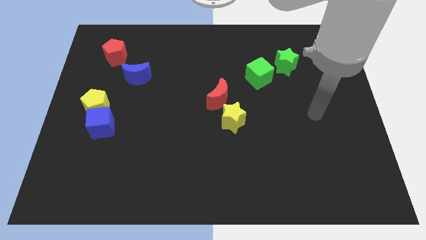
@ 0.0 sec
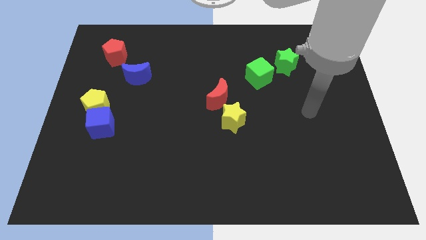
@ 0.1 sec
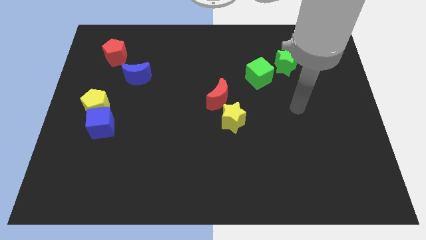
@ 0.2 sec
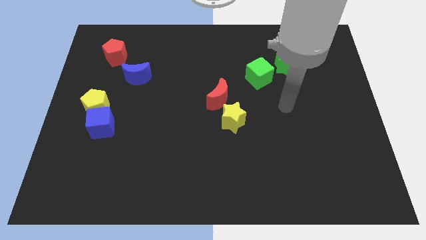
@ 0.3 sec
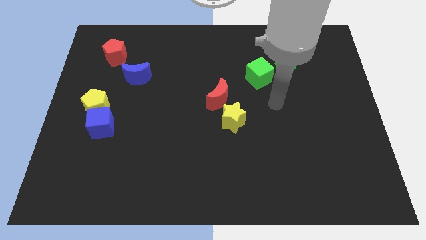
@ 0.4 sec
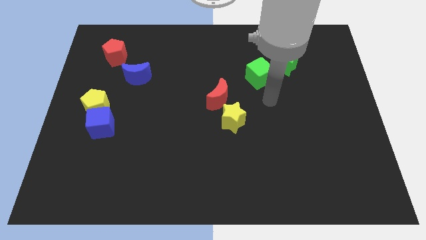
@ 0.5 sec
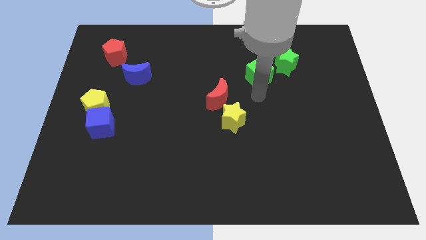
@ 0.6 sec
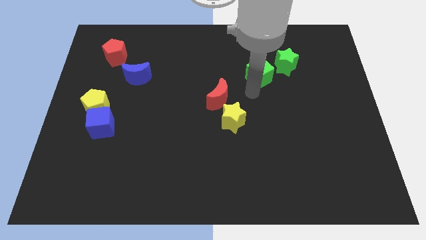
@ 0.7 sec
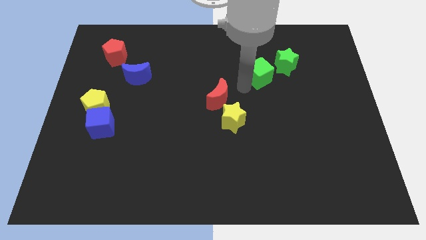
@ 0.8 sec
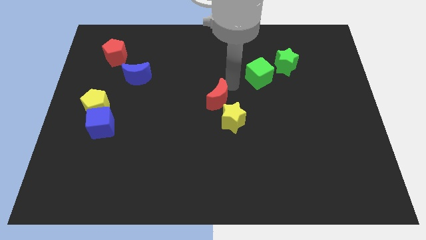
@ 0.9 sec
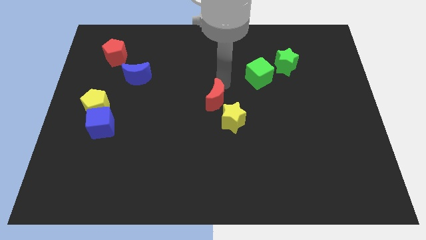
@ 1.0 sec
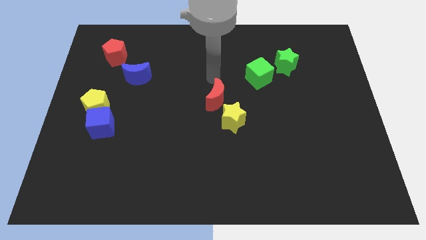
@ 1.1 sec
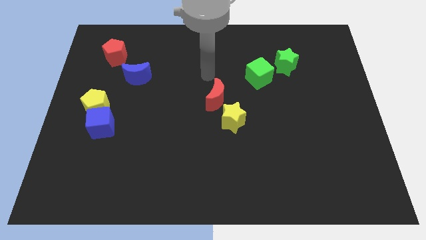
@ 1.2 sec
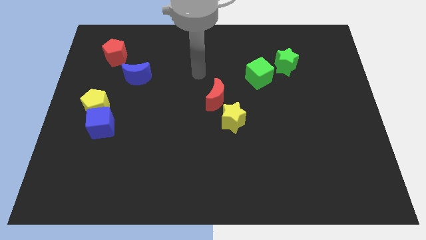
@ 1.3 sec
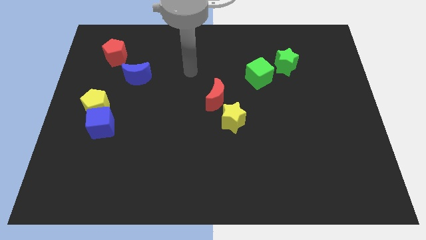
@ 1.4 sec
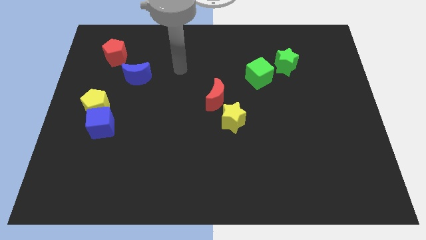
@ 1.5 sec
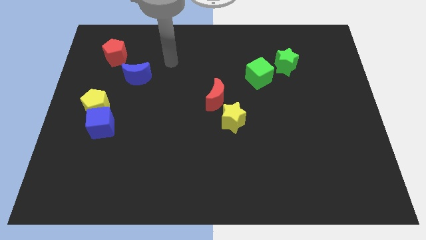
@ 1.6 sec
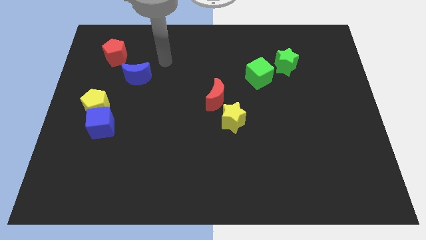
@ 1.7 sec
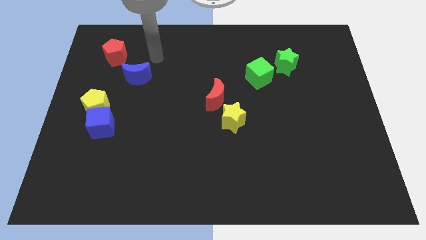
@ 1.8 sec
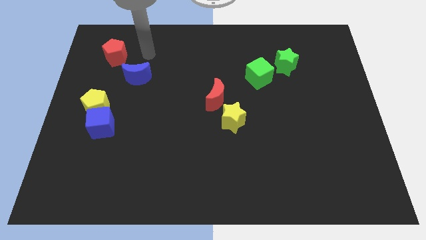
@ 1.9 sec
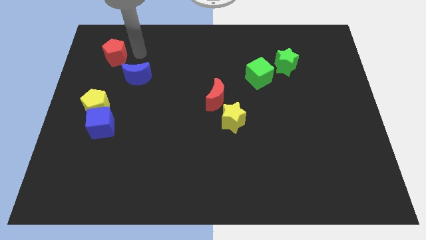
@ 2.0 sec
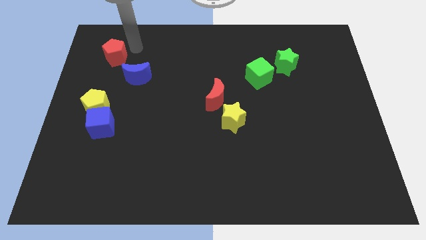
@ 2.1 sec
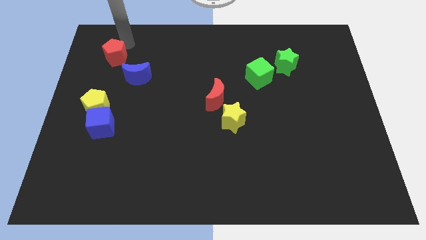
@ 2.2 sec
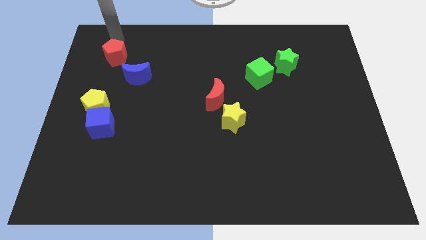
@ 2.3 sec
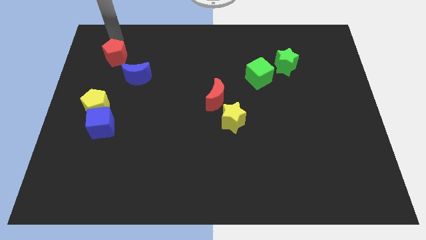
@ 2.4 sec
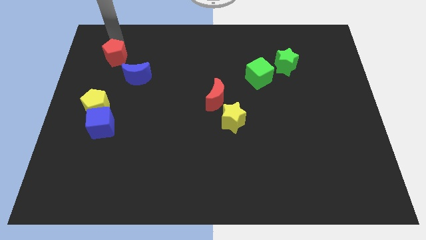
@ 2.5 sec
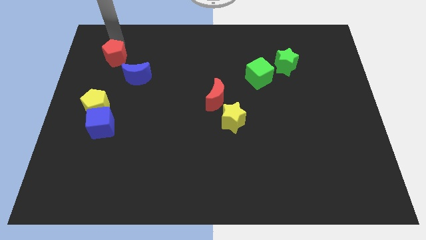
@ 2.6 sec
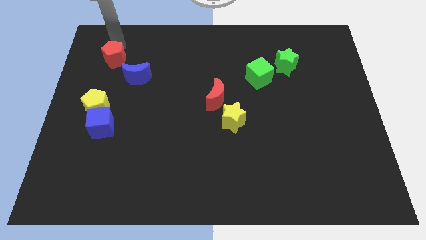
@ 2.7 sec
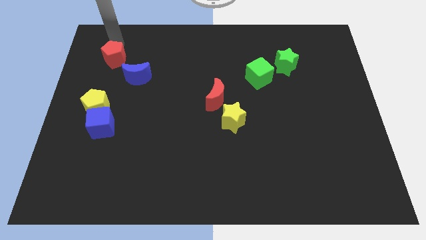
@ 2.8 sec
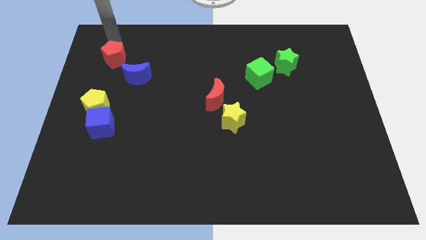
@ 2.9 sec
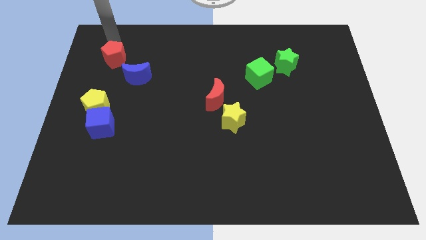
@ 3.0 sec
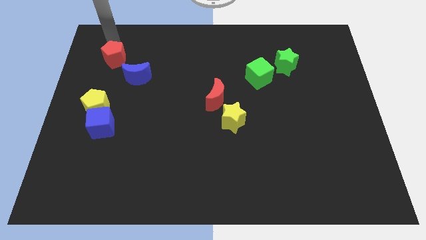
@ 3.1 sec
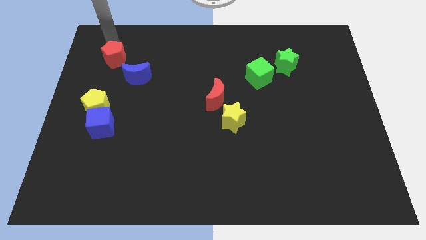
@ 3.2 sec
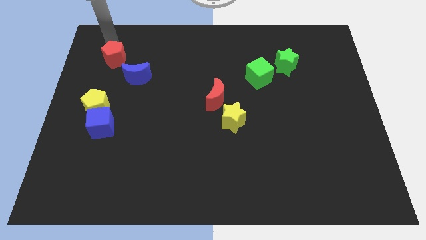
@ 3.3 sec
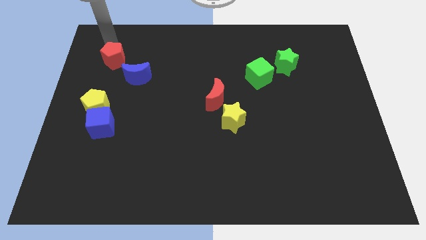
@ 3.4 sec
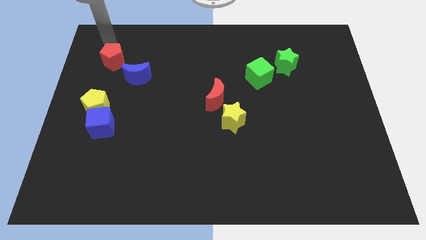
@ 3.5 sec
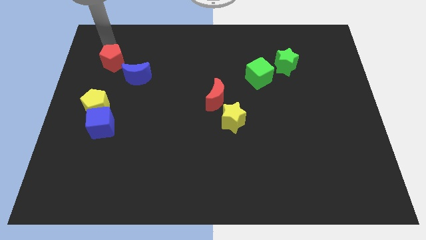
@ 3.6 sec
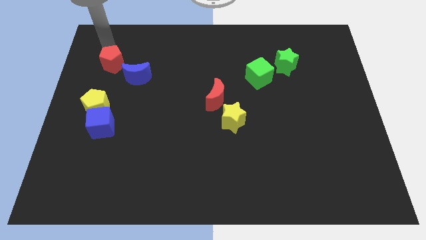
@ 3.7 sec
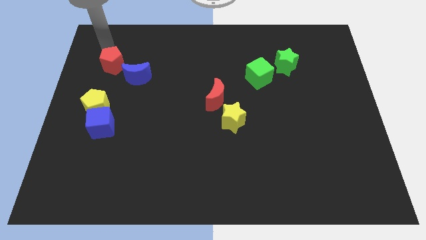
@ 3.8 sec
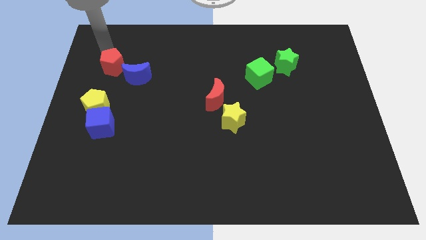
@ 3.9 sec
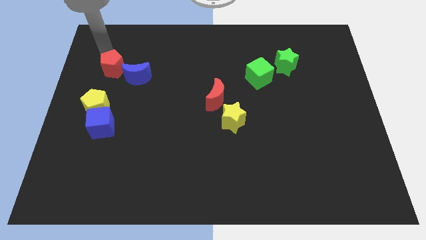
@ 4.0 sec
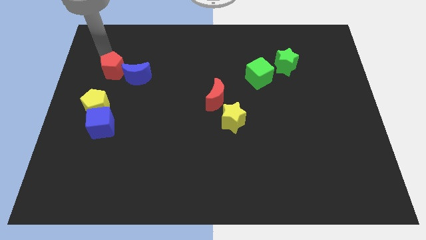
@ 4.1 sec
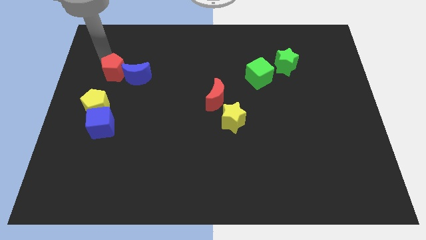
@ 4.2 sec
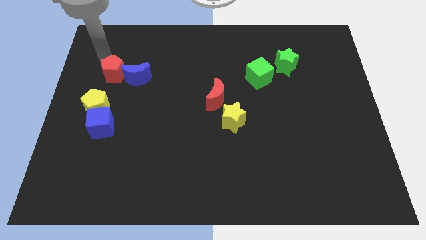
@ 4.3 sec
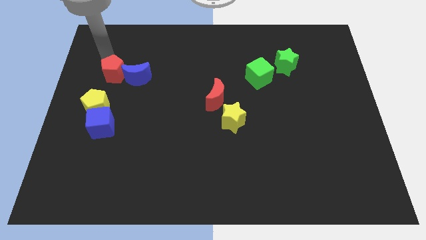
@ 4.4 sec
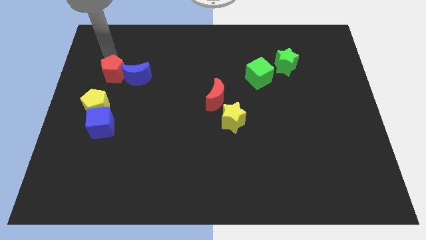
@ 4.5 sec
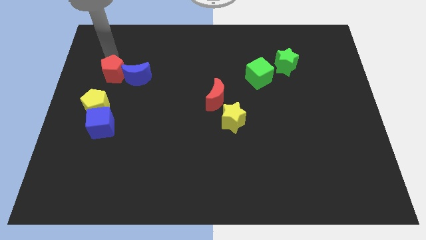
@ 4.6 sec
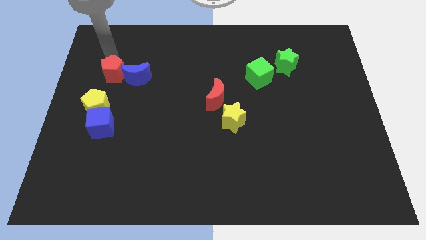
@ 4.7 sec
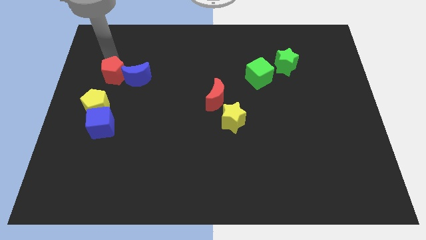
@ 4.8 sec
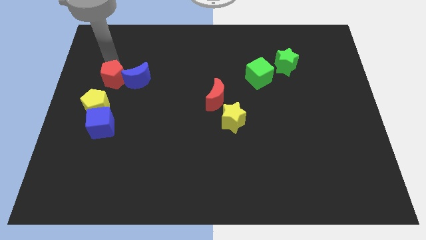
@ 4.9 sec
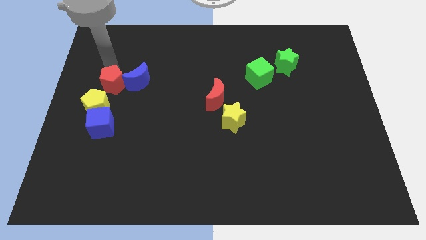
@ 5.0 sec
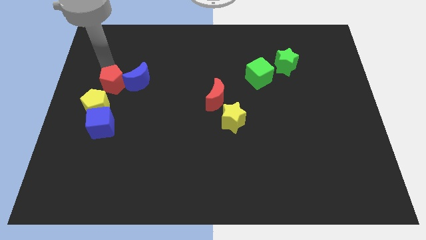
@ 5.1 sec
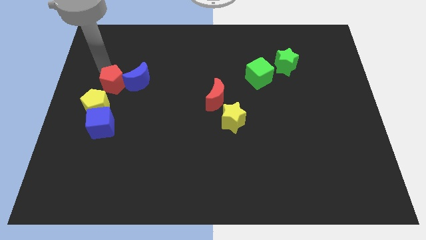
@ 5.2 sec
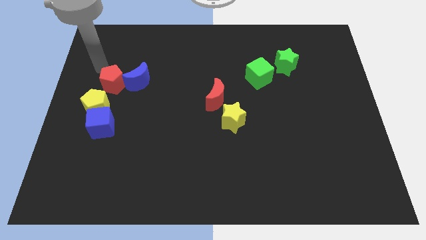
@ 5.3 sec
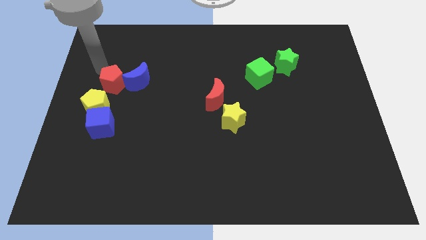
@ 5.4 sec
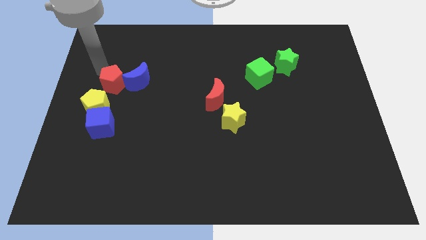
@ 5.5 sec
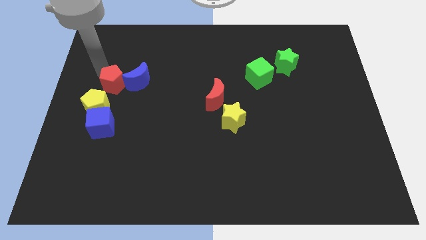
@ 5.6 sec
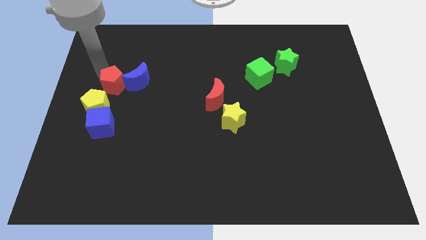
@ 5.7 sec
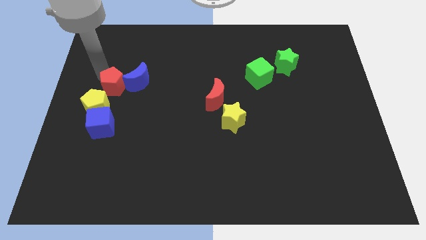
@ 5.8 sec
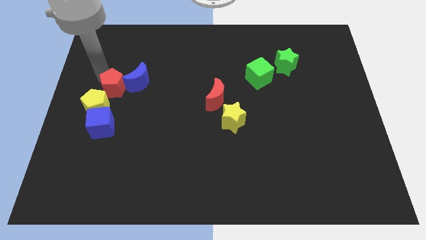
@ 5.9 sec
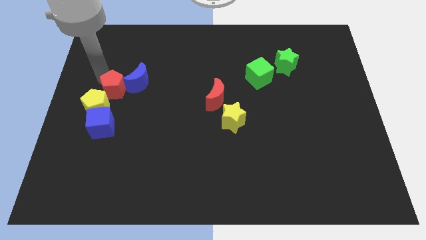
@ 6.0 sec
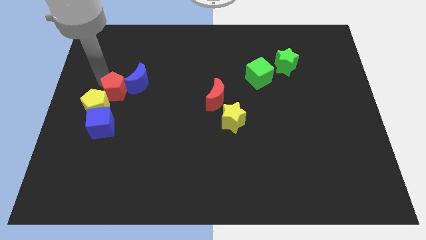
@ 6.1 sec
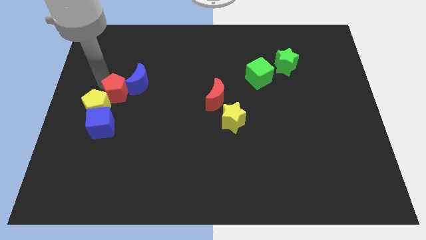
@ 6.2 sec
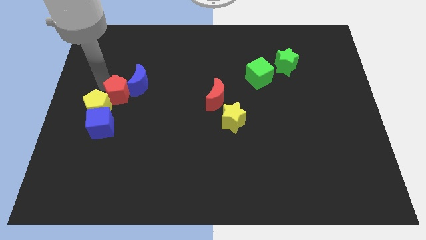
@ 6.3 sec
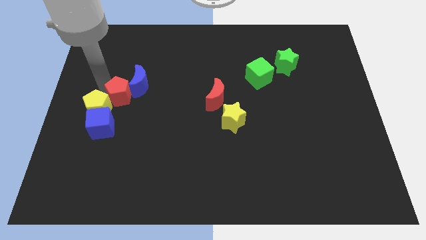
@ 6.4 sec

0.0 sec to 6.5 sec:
slide the red pentagon to the top right side of the blue cube
